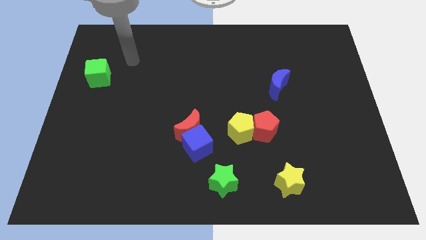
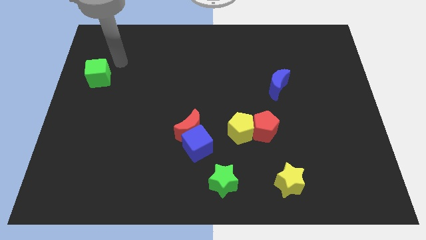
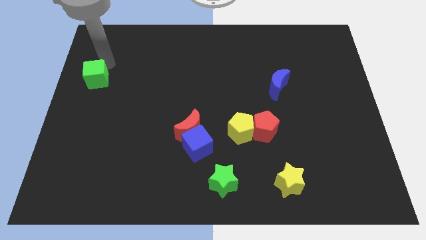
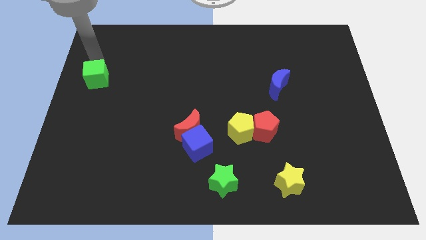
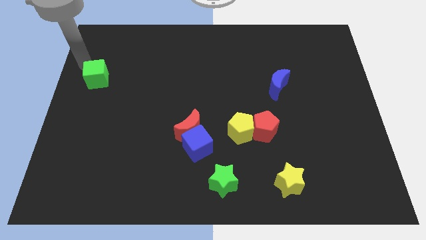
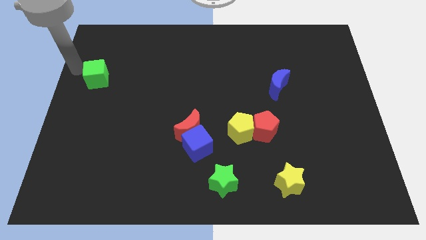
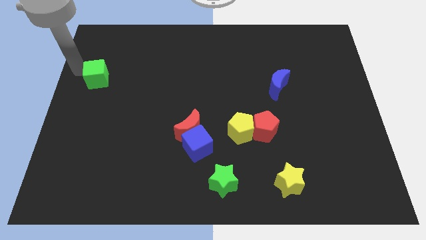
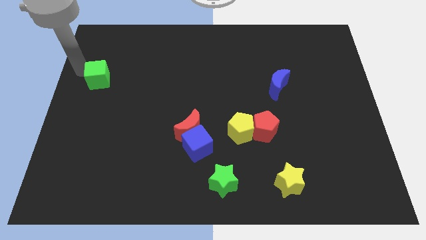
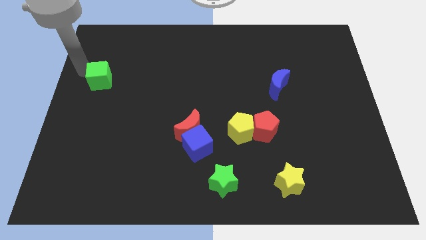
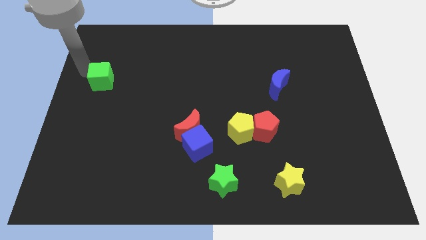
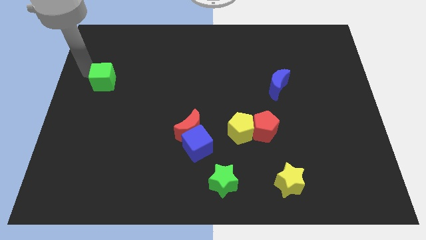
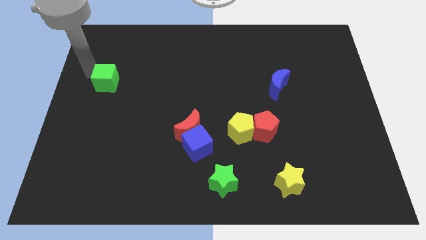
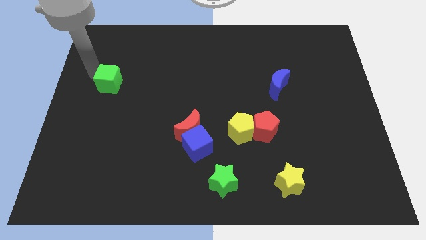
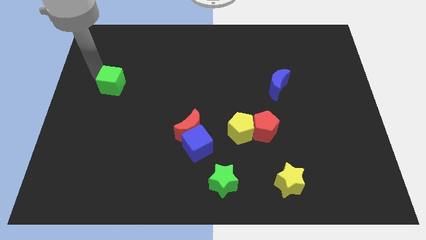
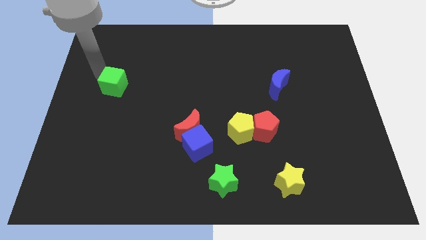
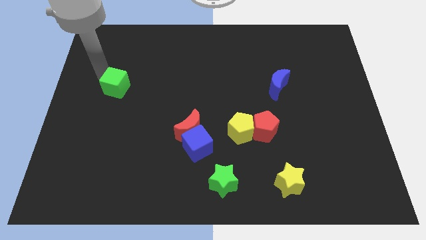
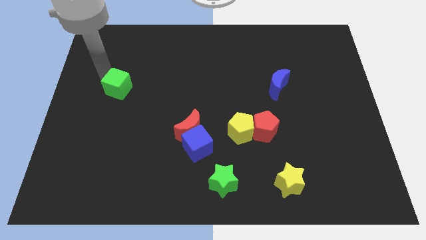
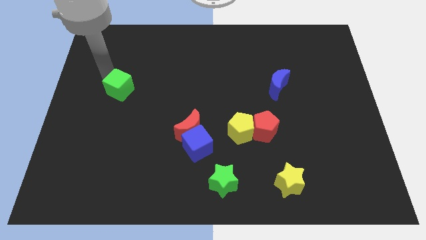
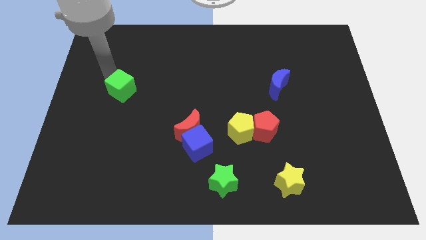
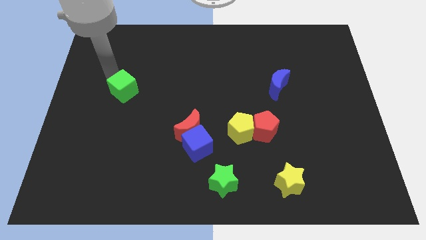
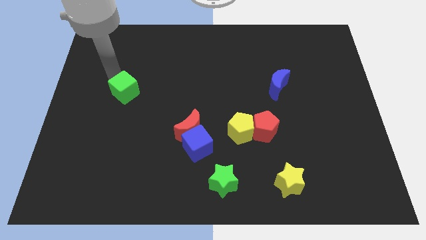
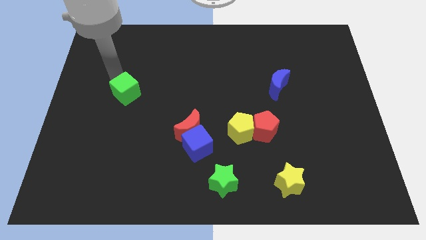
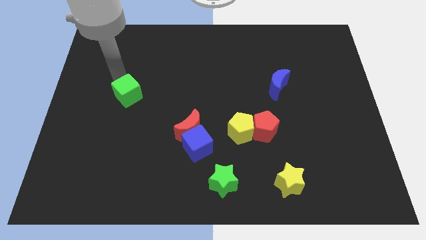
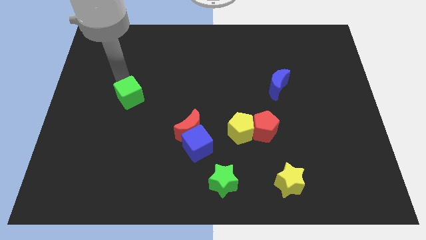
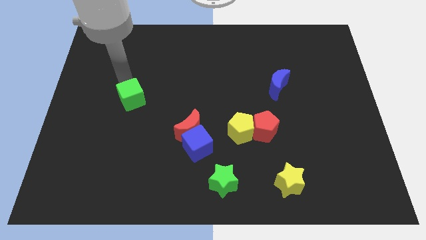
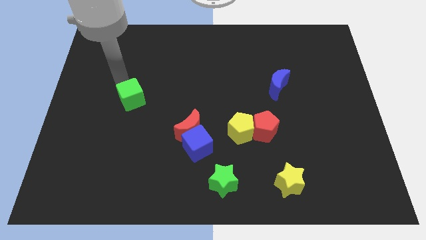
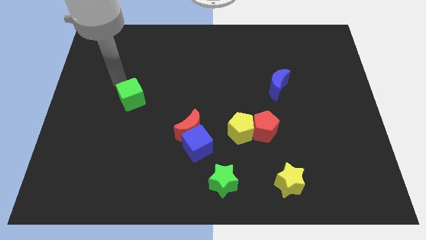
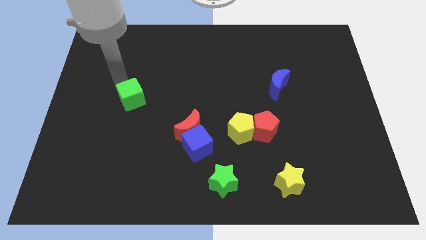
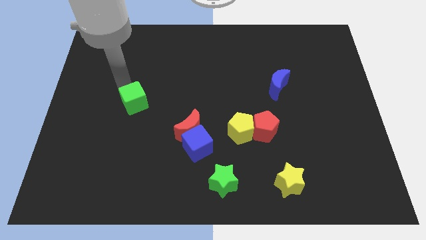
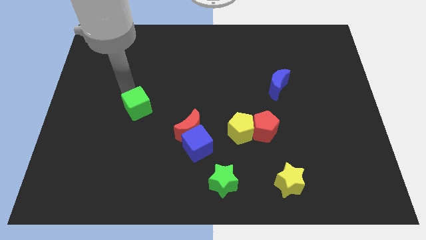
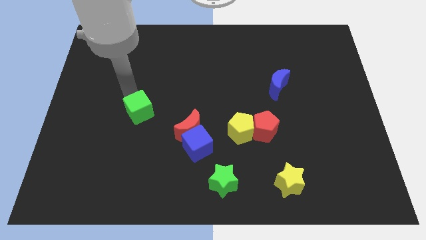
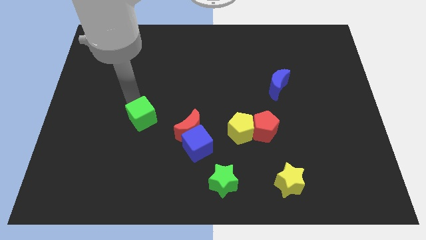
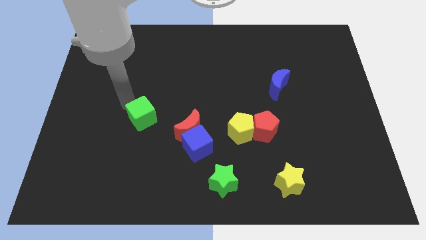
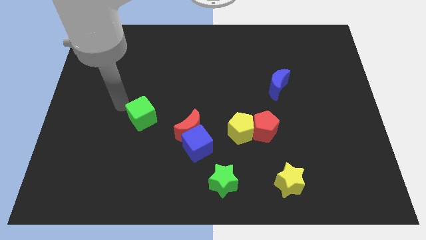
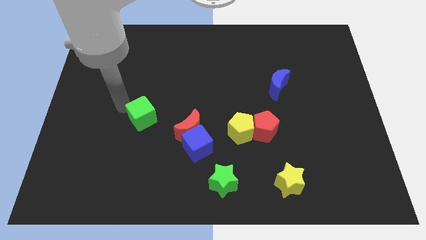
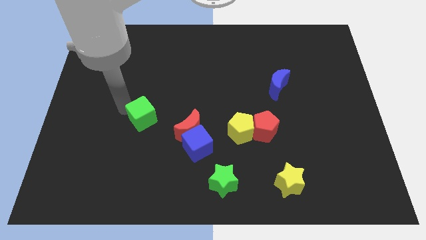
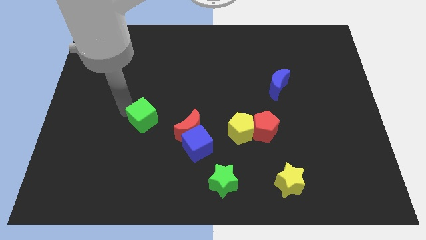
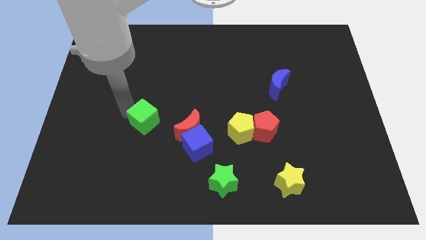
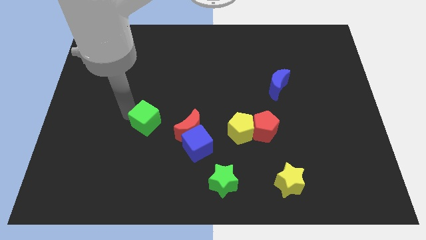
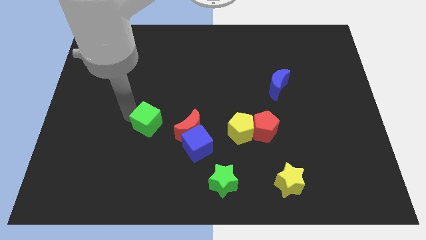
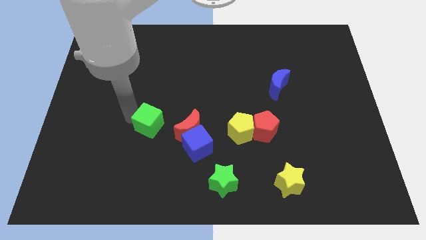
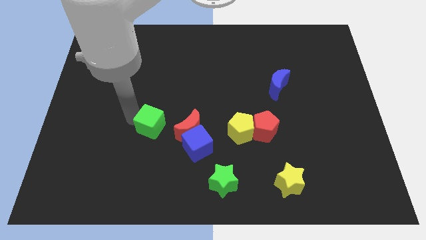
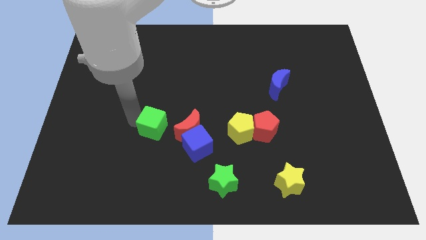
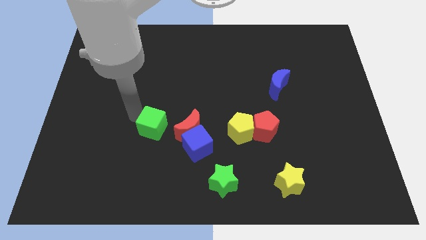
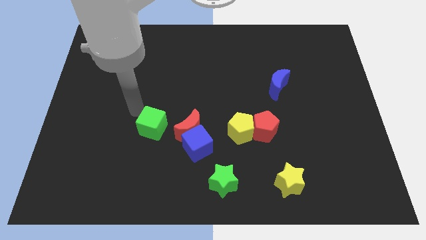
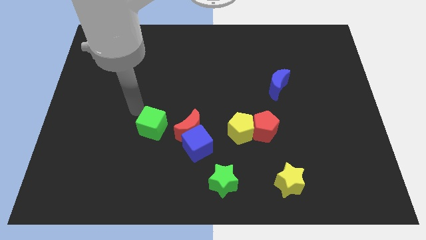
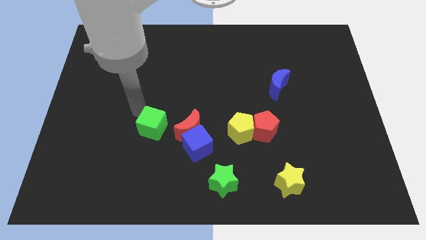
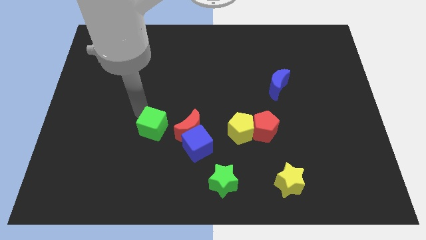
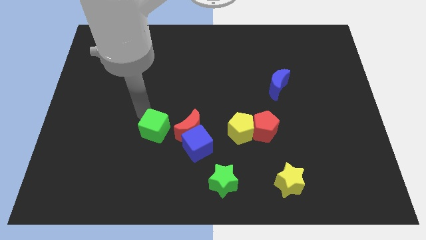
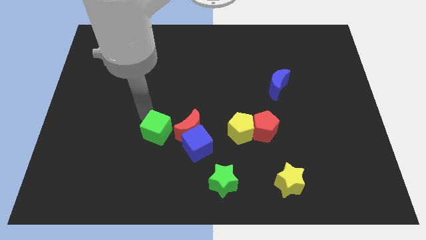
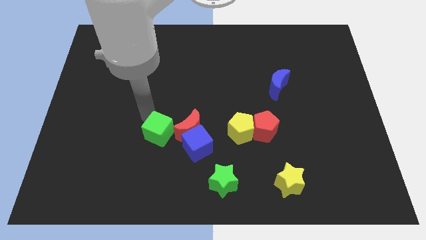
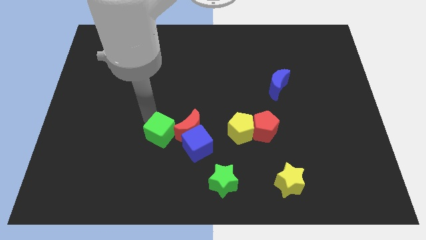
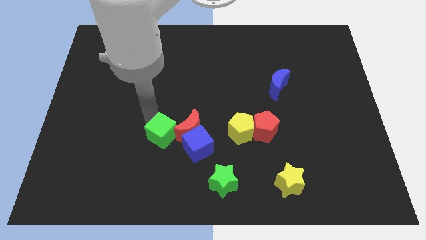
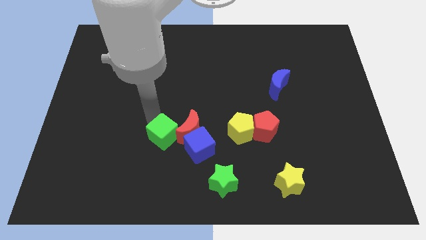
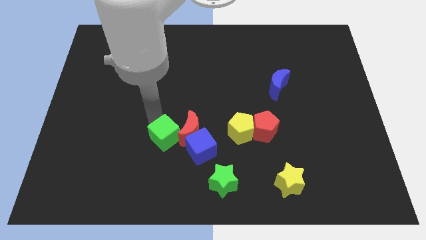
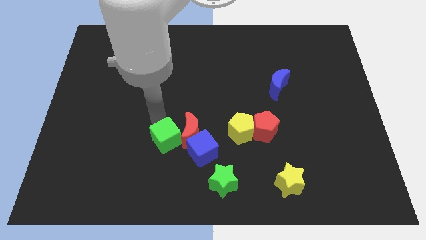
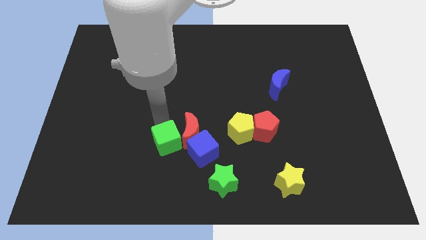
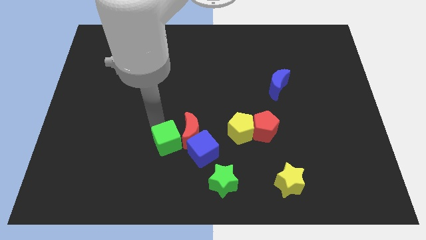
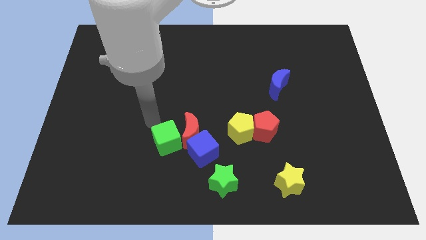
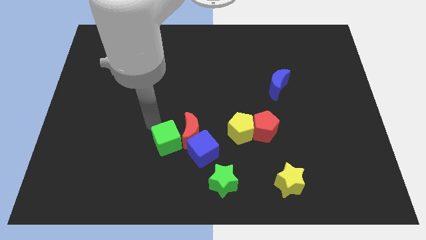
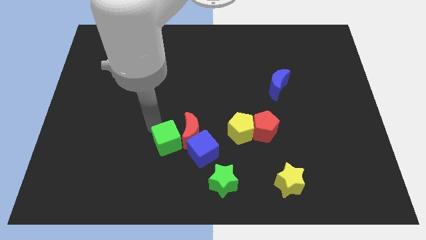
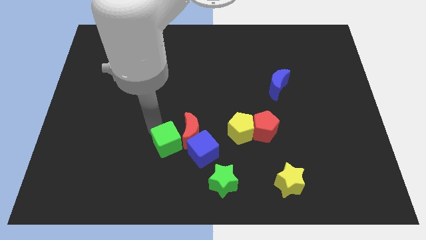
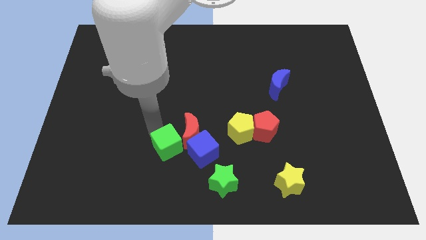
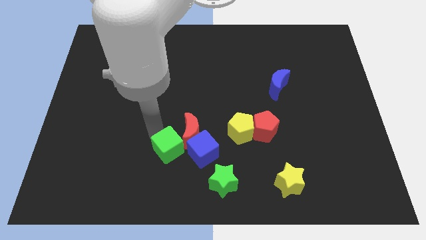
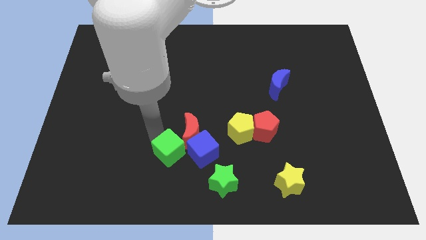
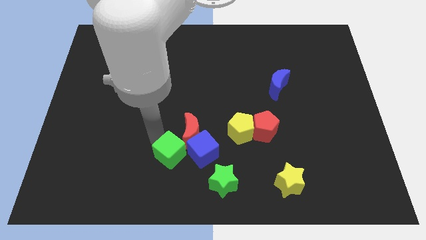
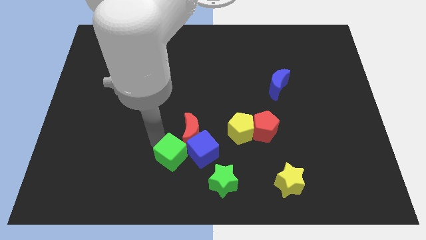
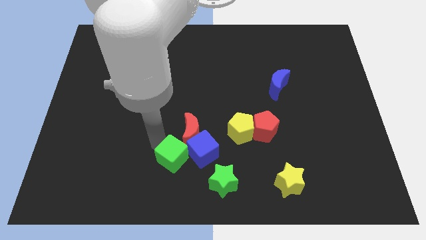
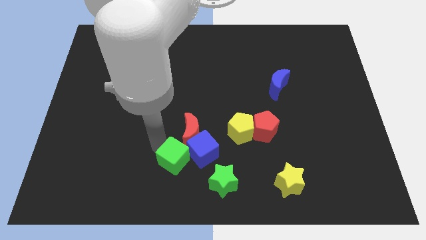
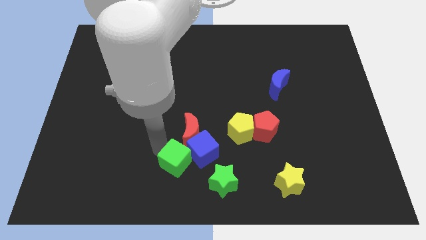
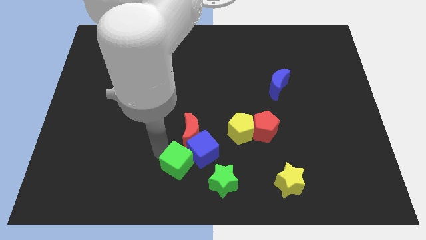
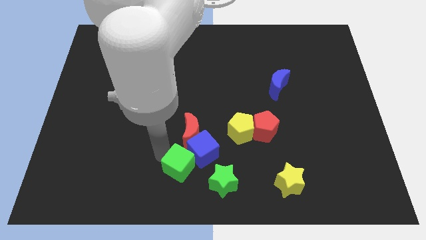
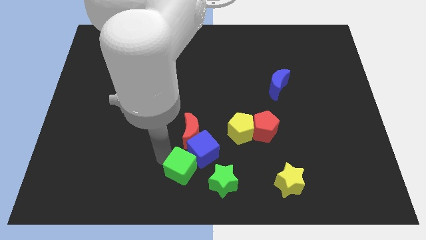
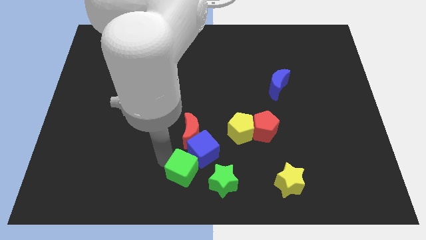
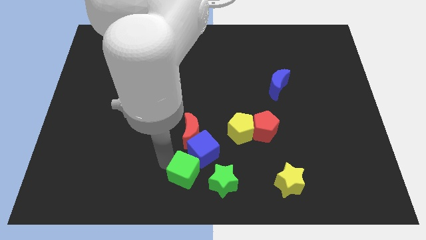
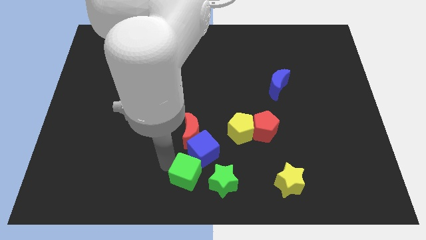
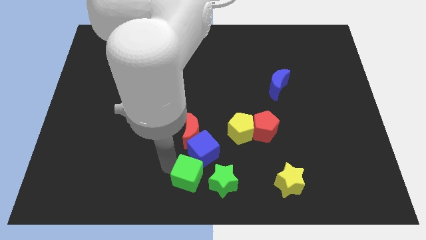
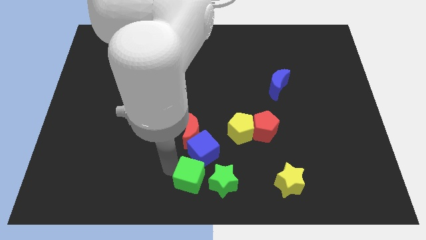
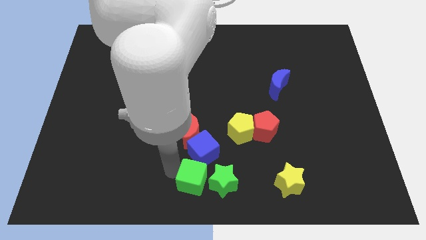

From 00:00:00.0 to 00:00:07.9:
slide the green cube to the green star
